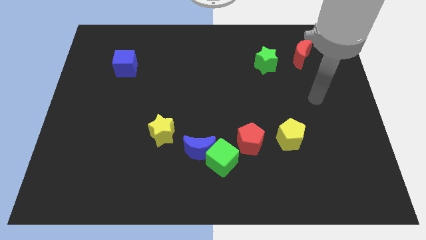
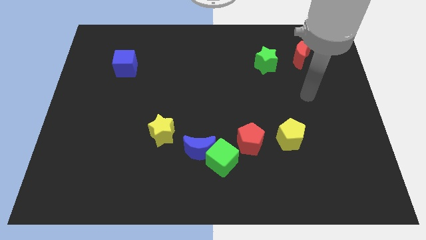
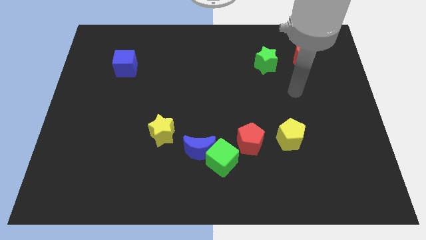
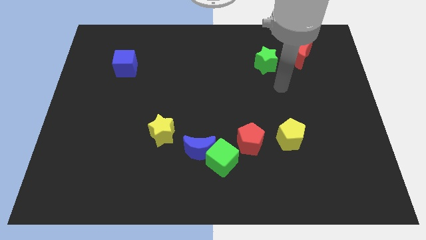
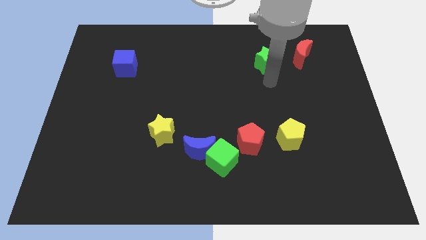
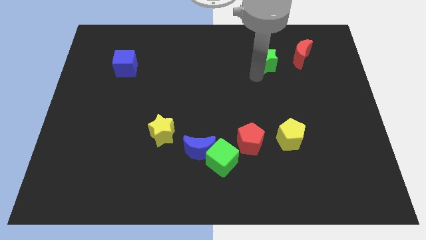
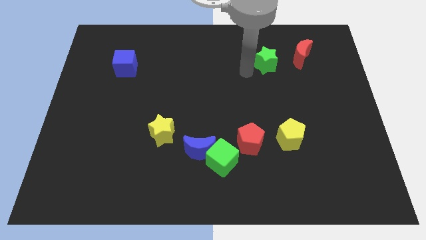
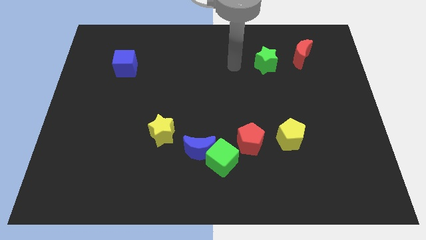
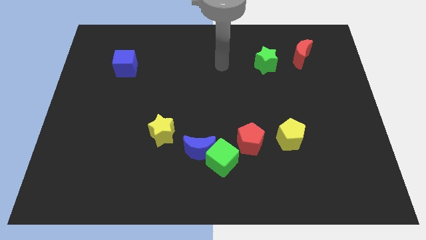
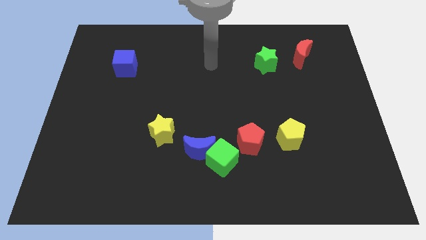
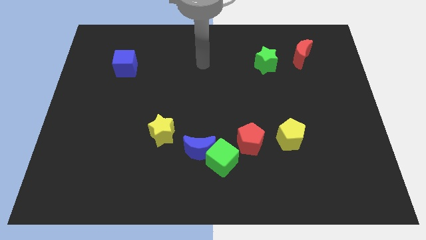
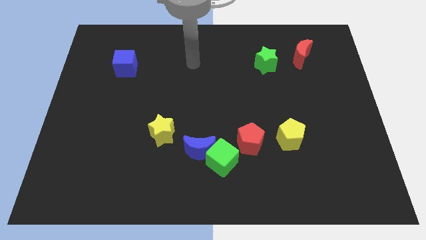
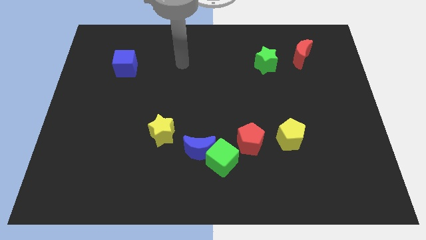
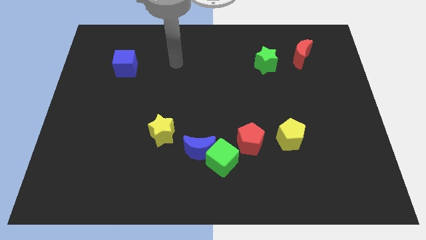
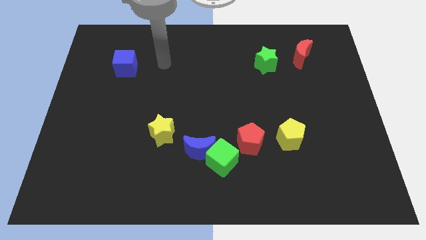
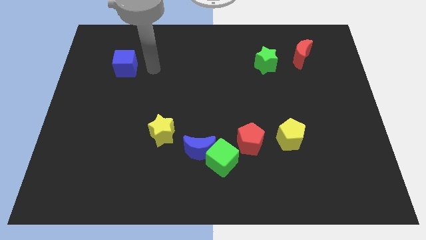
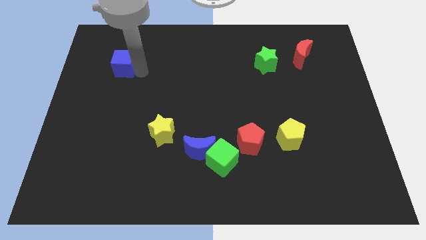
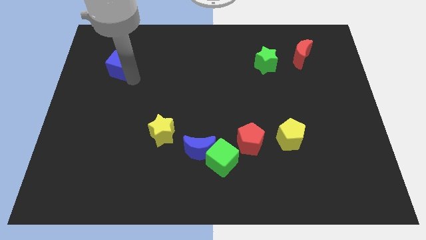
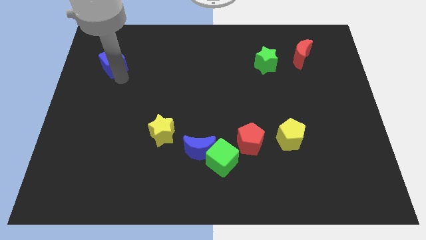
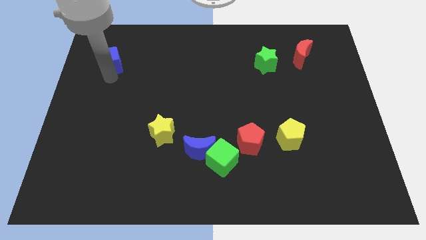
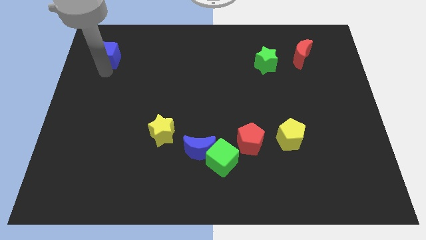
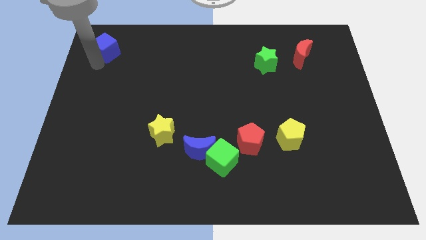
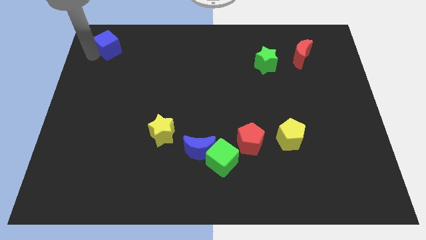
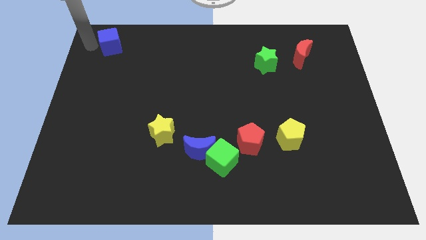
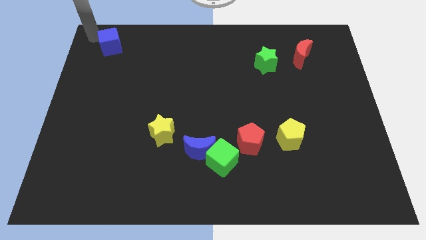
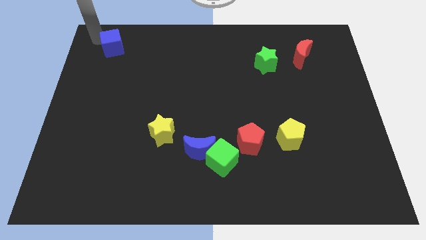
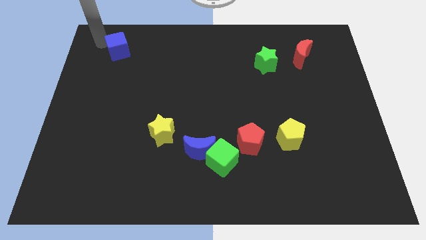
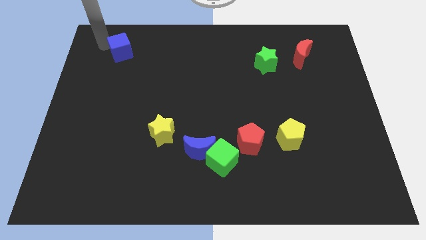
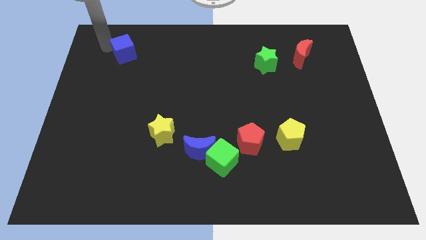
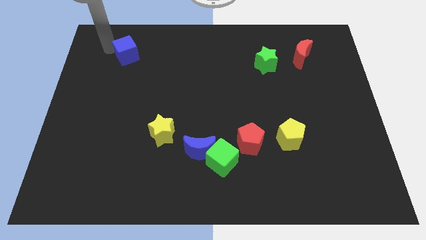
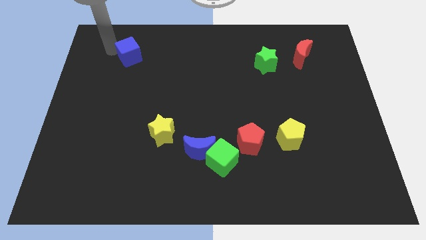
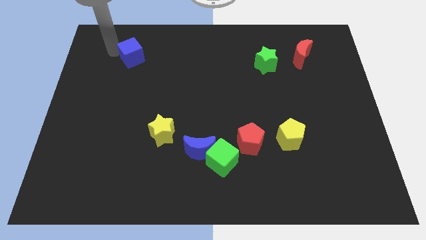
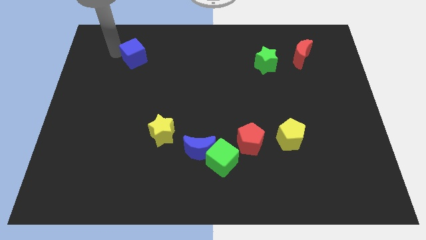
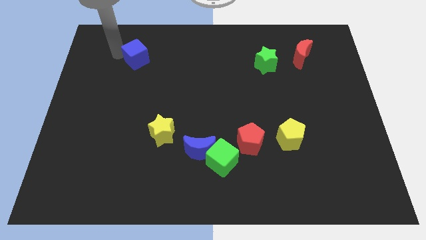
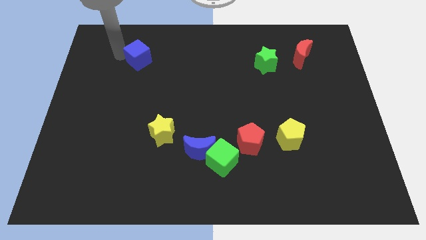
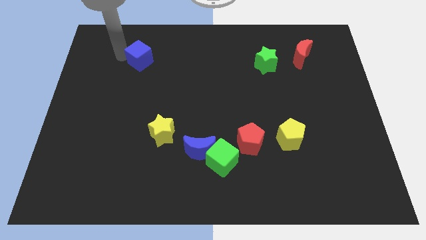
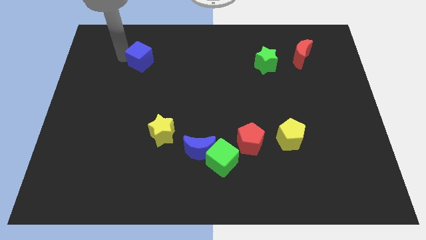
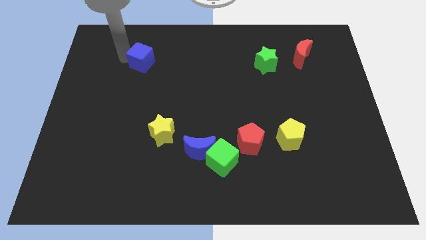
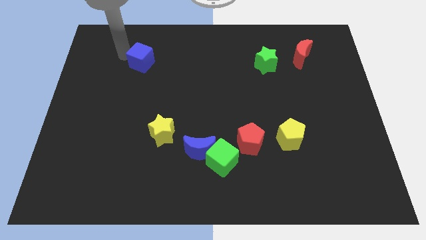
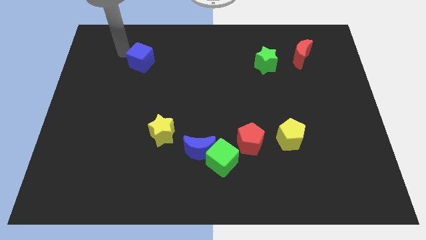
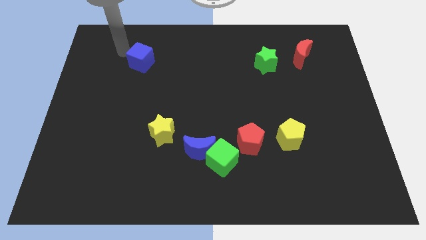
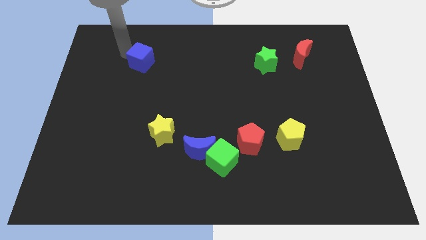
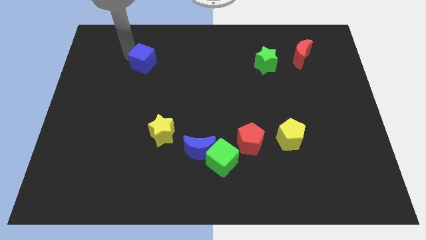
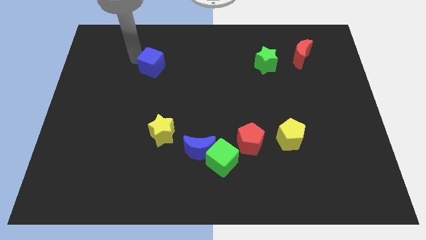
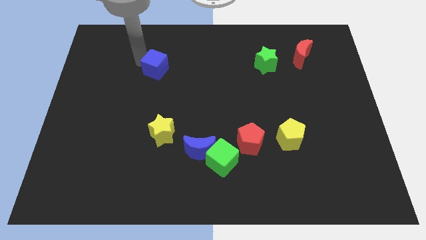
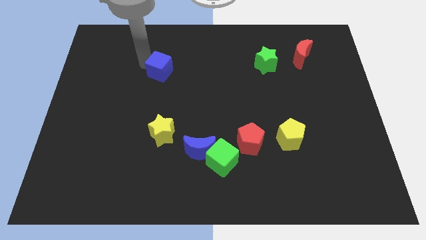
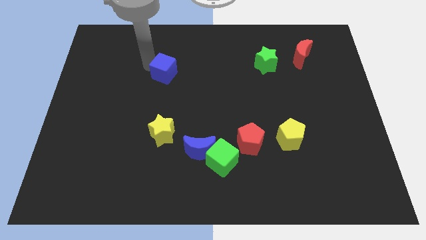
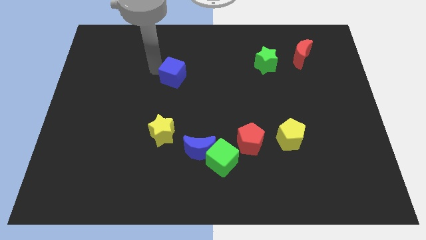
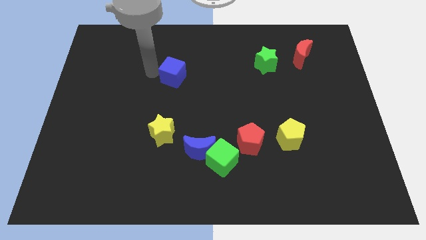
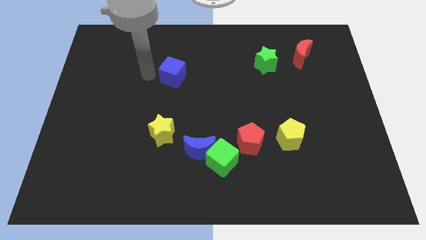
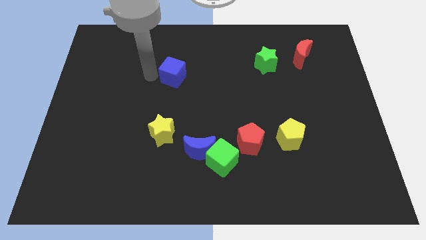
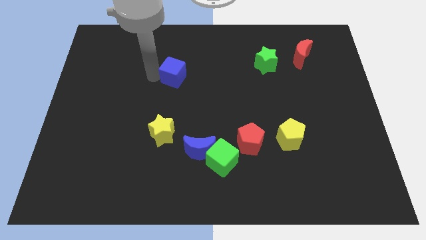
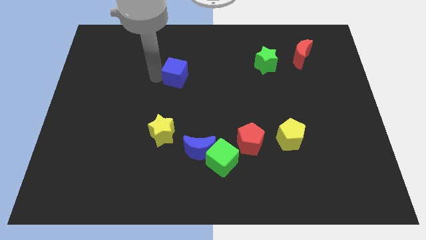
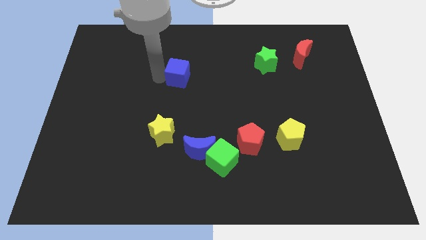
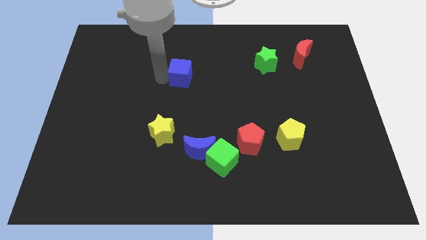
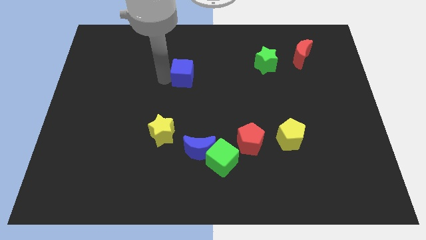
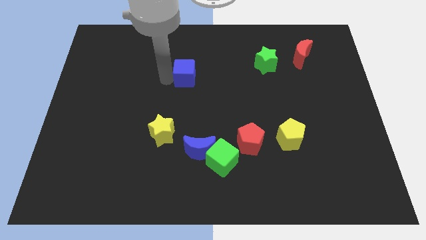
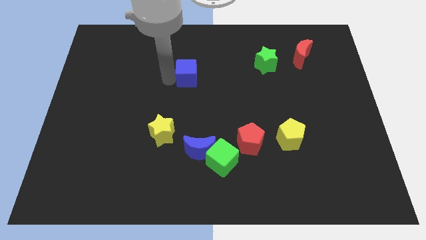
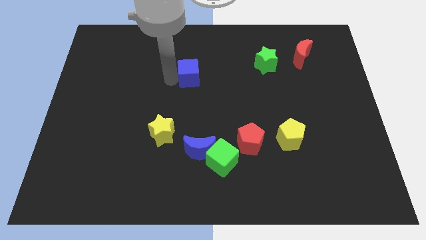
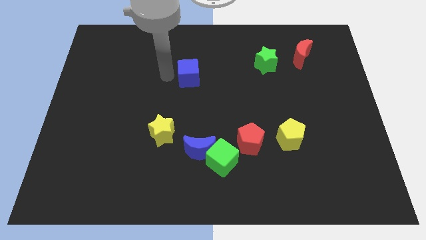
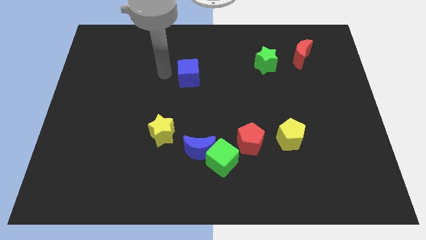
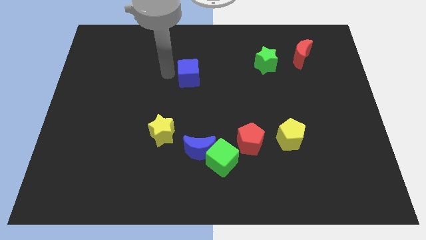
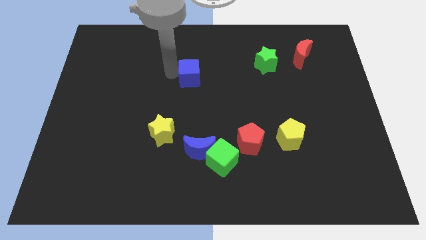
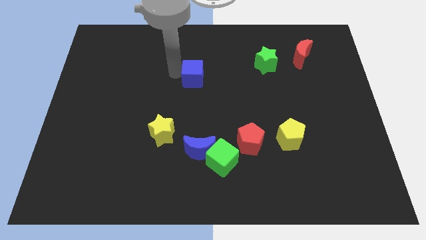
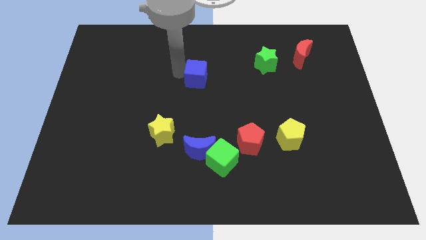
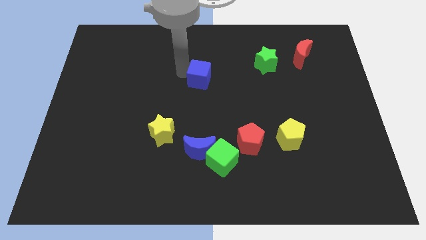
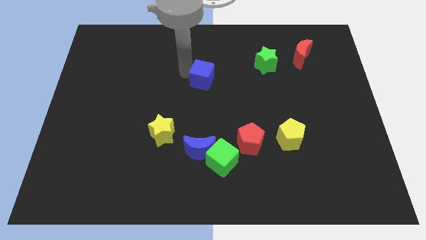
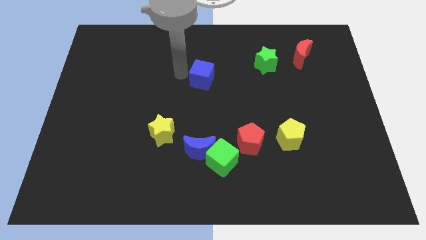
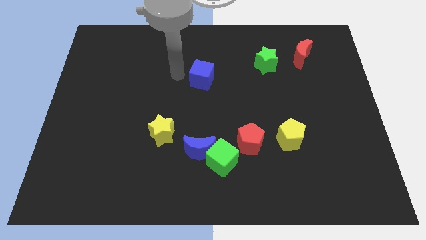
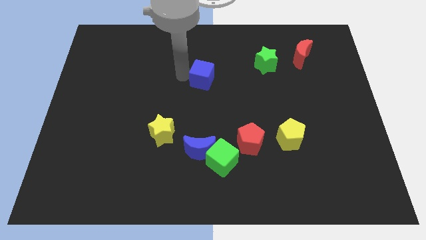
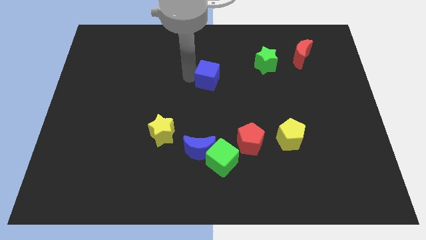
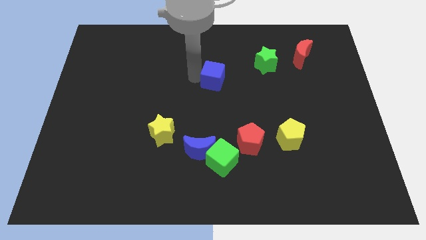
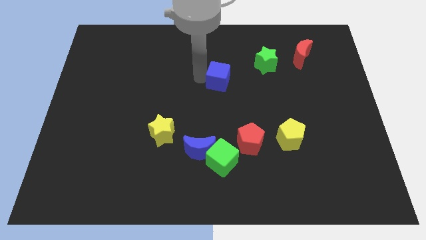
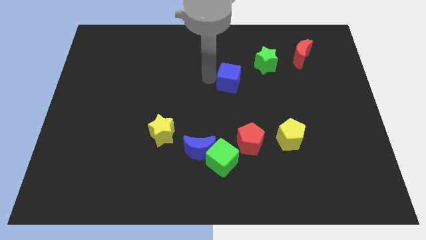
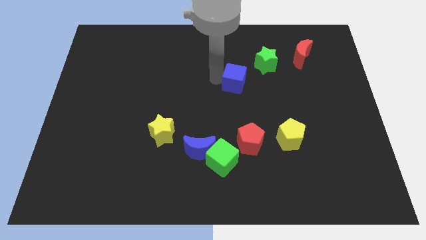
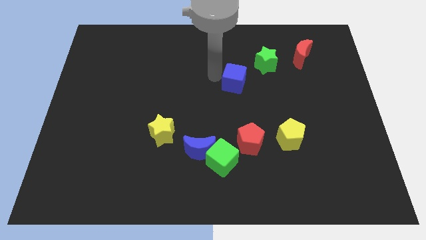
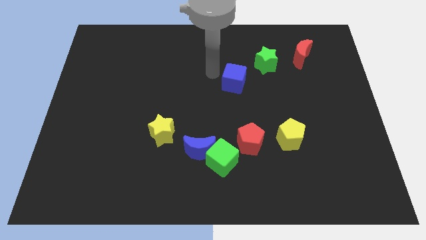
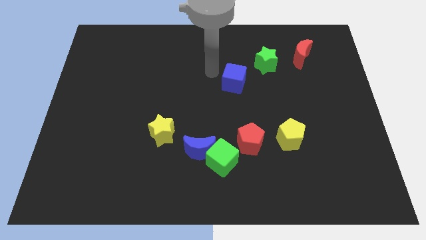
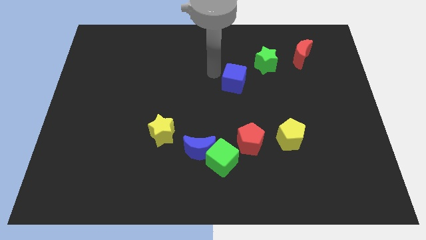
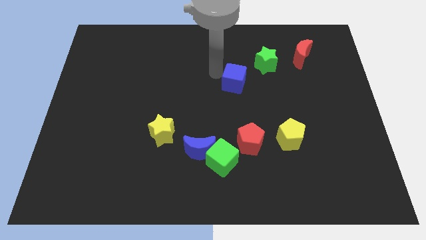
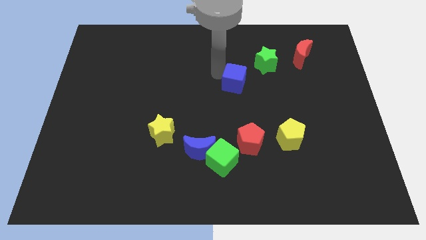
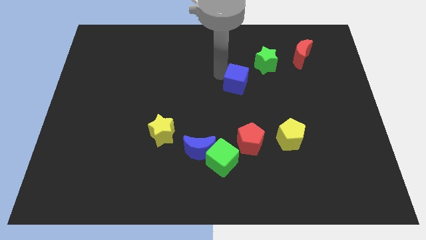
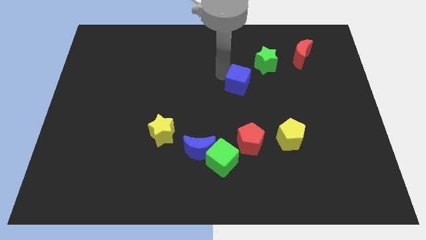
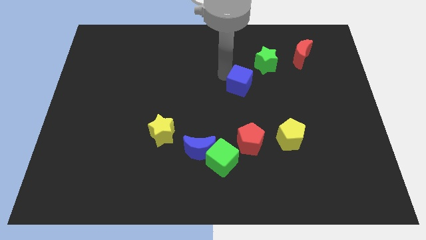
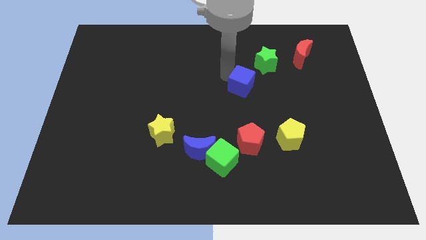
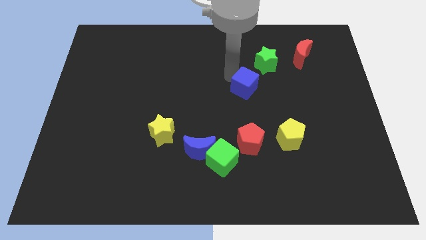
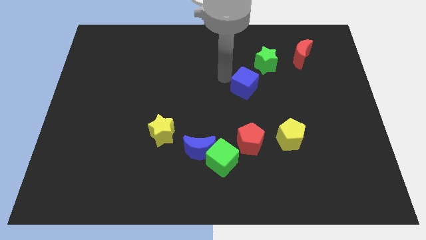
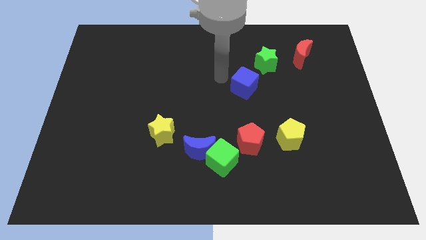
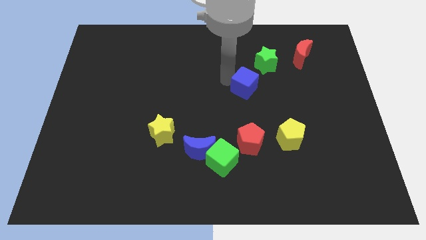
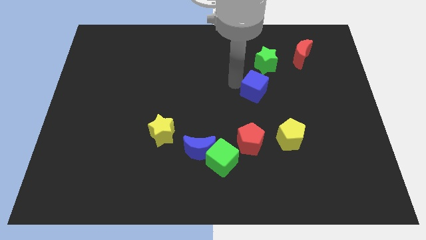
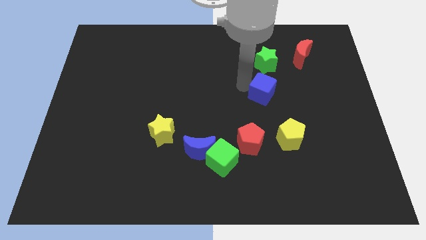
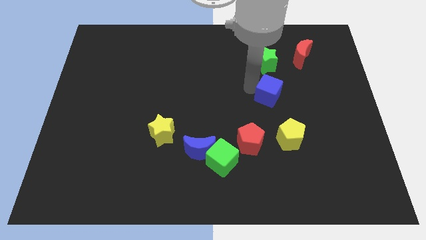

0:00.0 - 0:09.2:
push the blue cube to the top side of the yellow pentagon
